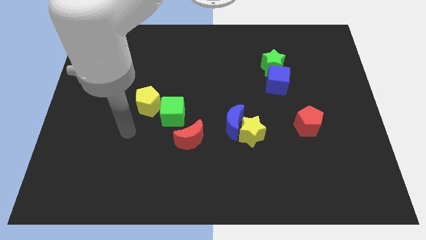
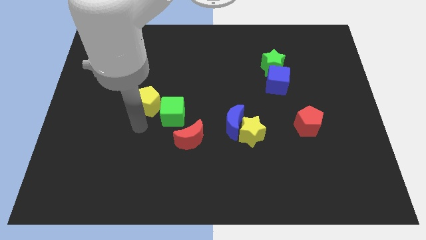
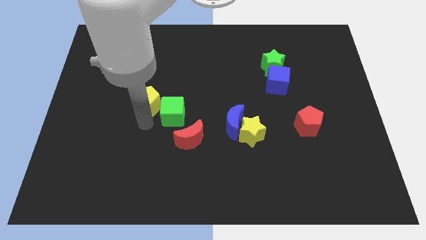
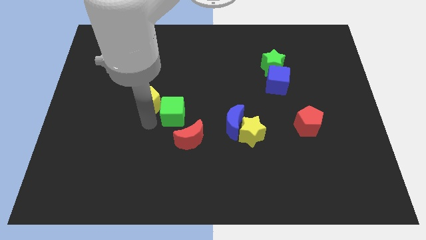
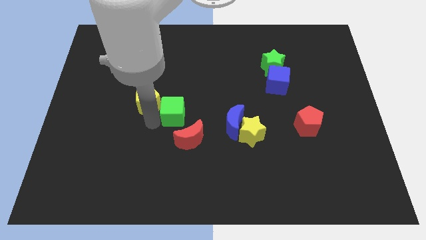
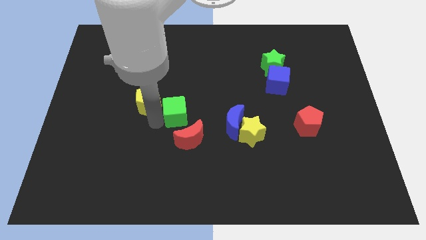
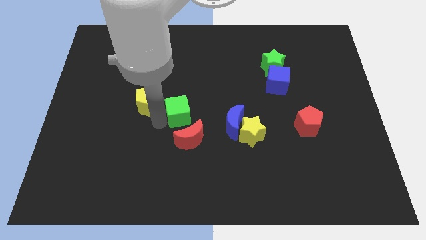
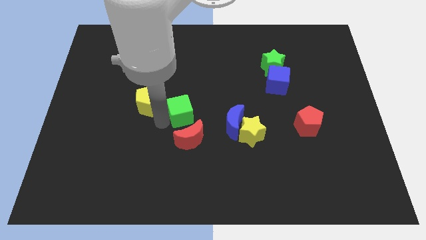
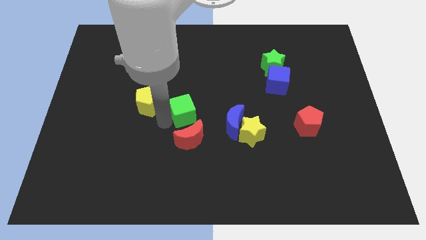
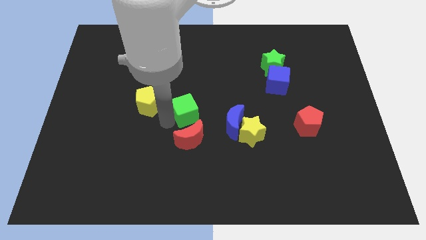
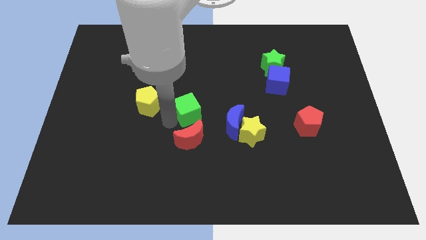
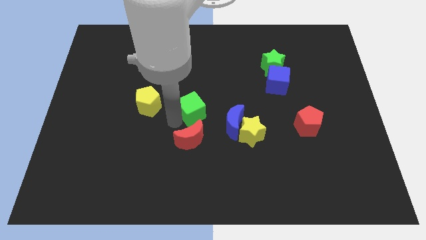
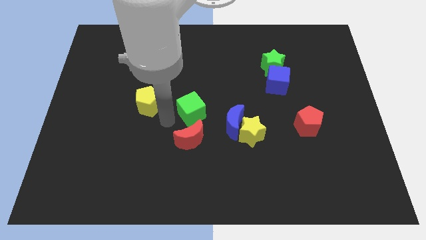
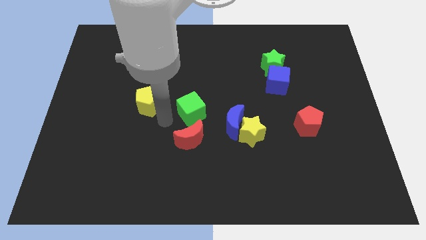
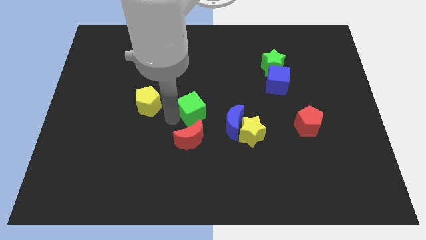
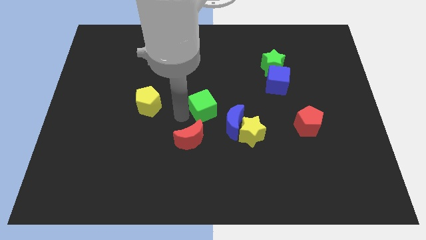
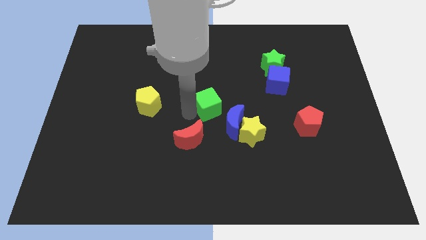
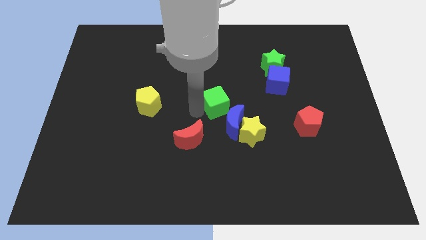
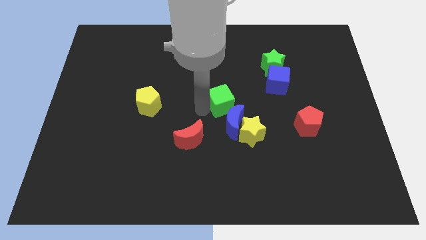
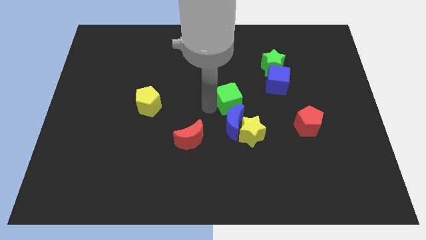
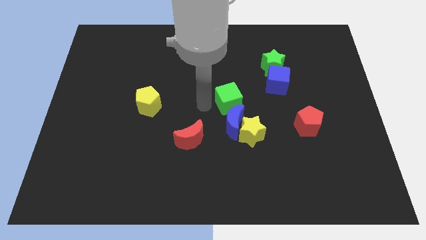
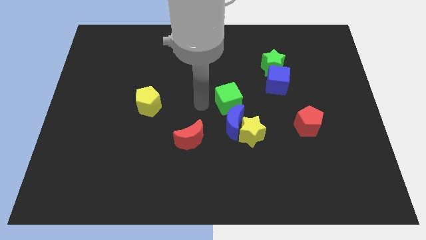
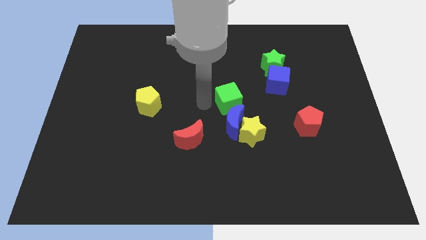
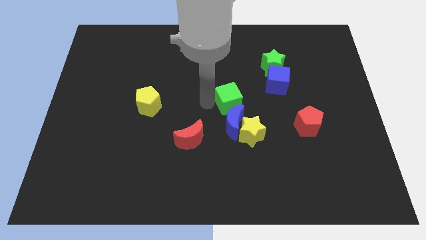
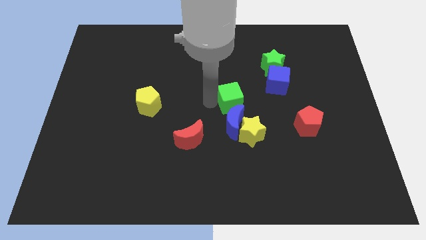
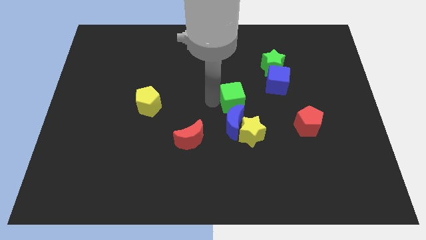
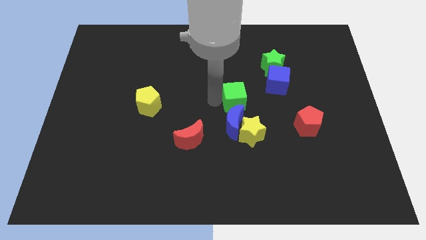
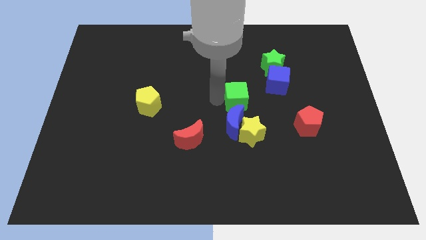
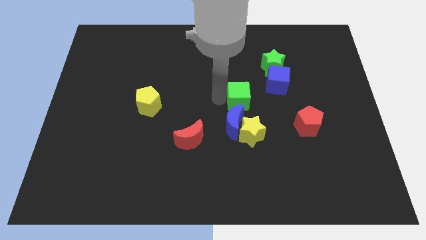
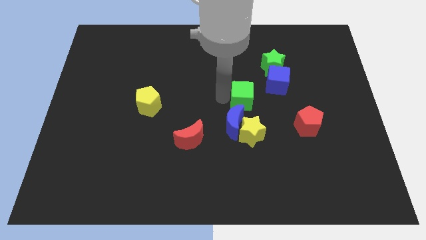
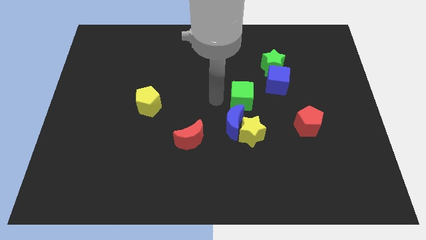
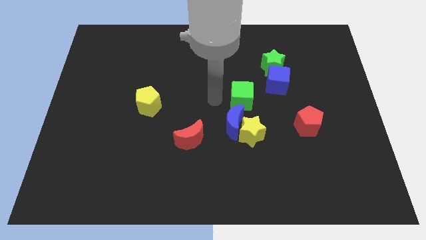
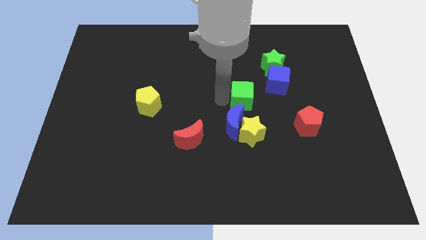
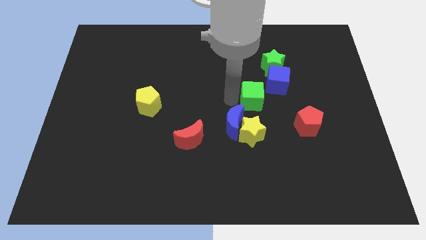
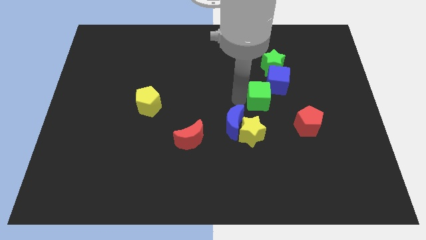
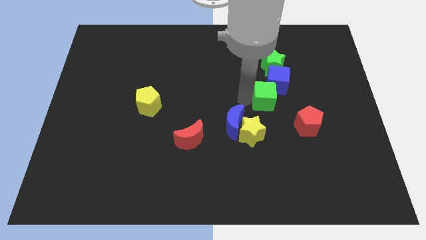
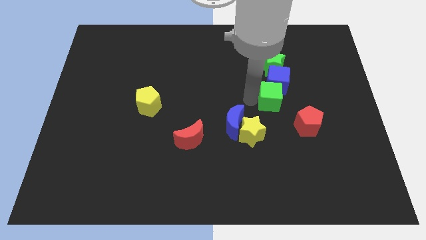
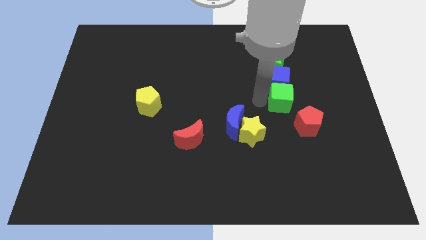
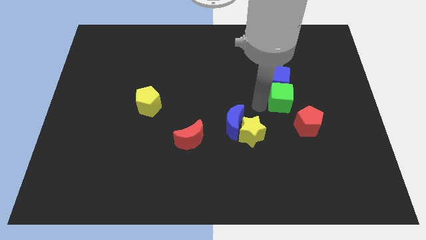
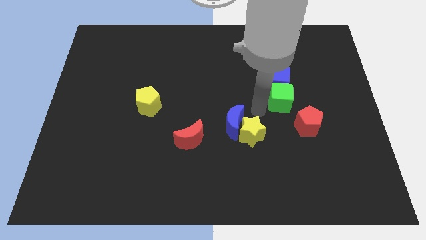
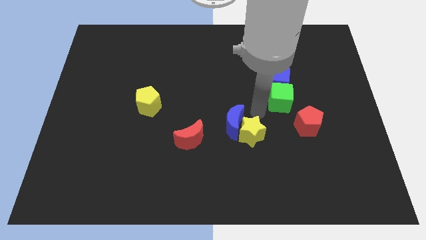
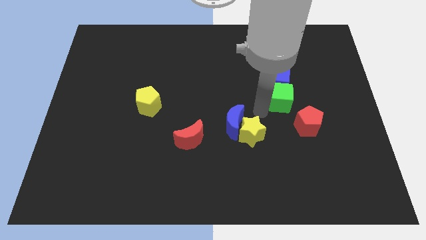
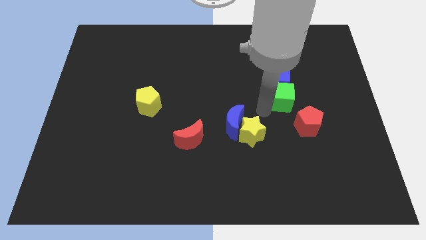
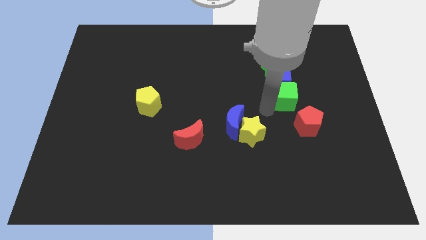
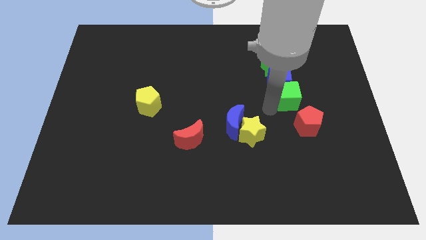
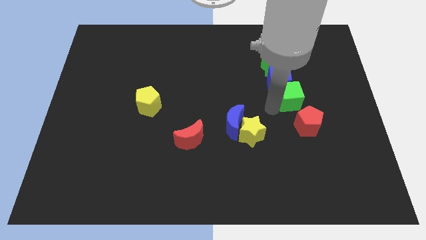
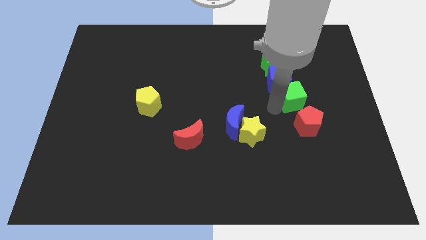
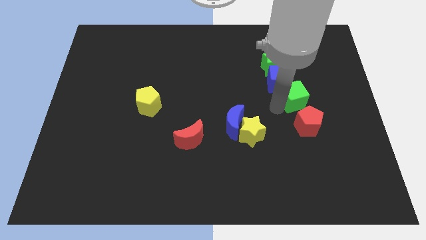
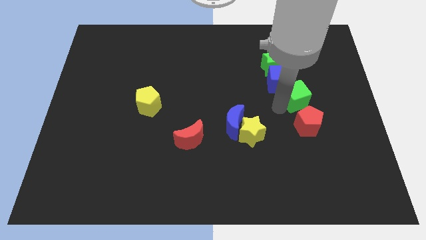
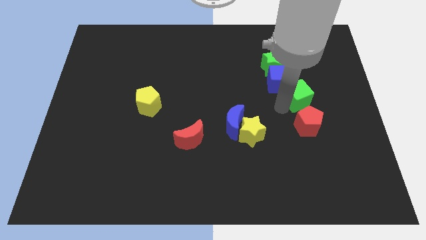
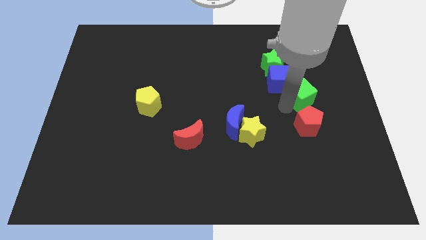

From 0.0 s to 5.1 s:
move the green cube just right of the blue cube

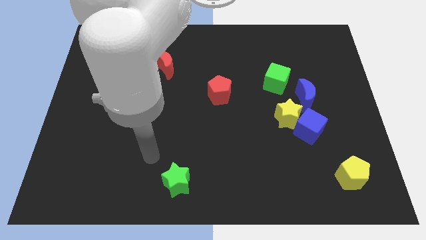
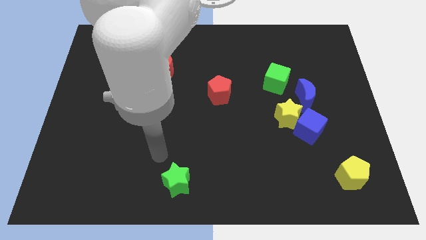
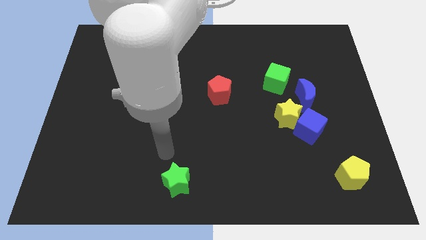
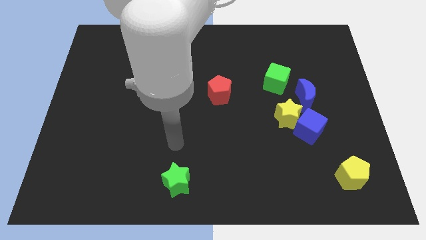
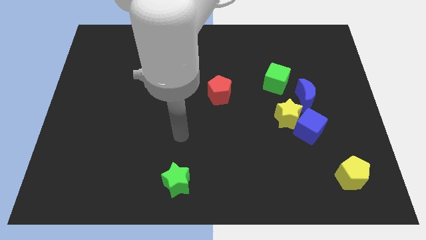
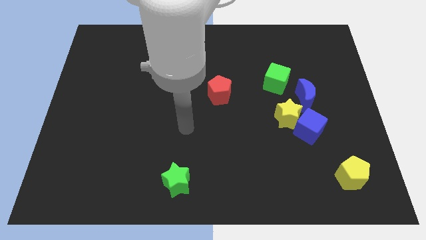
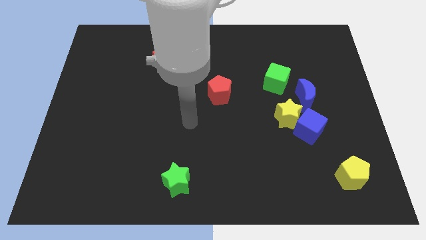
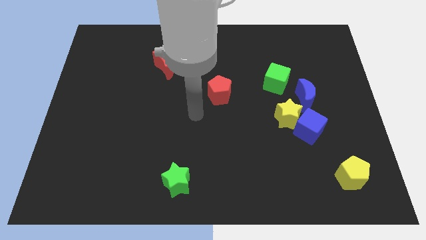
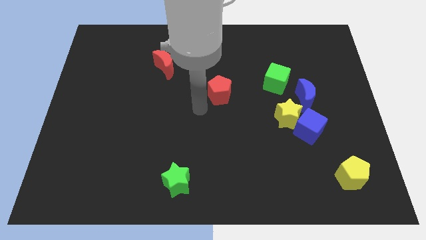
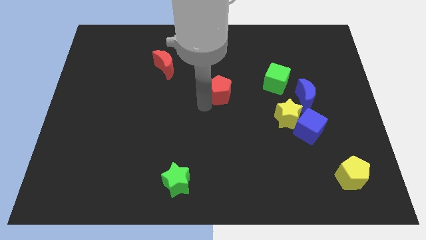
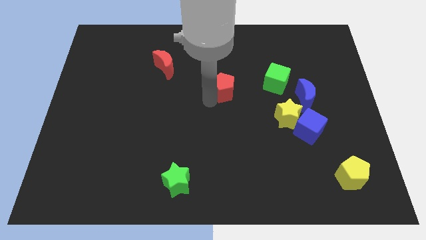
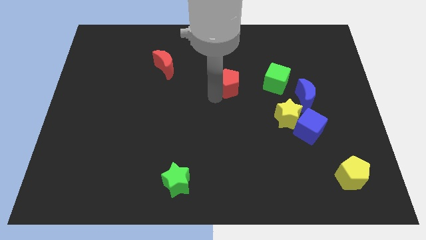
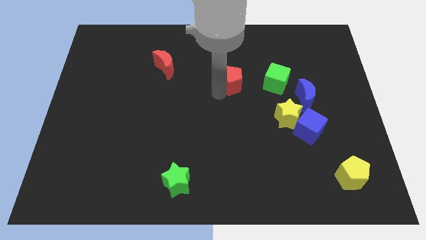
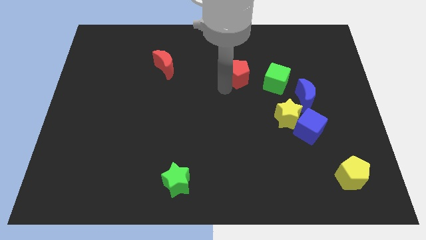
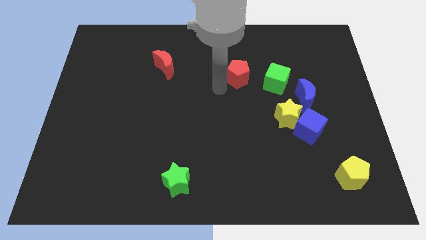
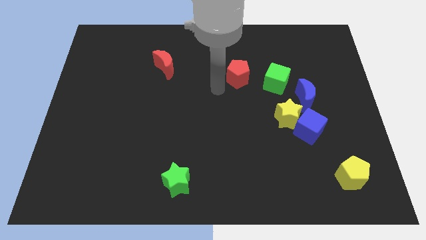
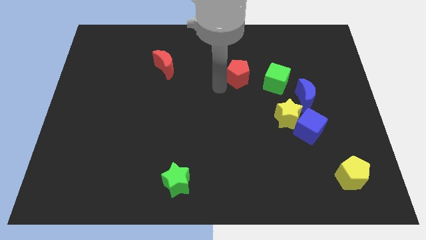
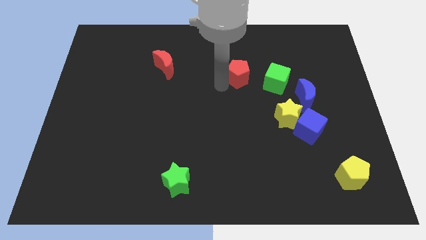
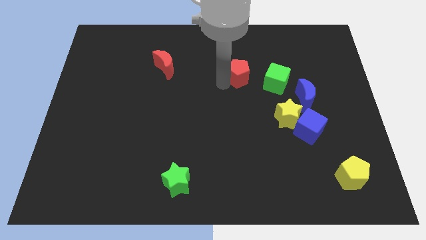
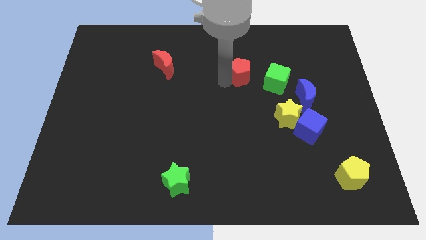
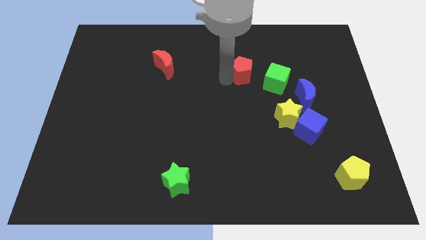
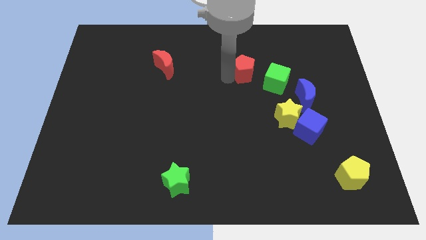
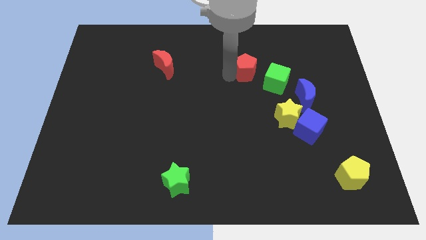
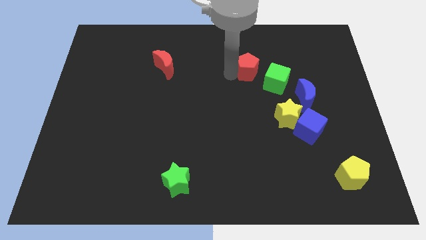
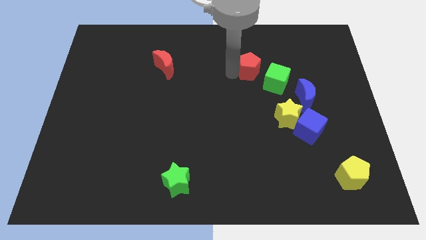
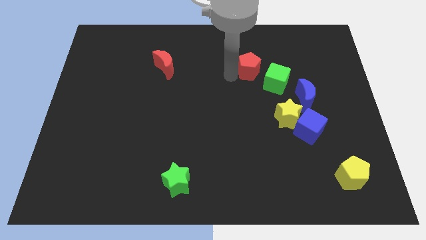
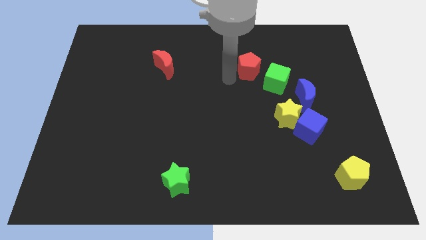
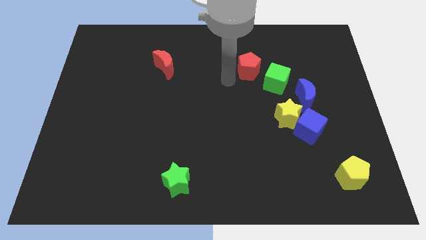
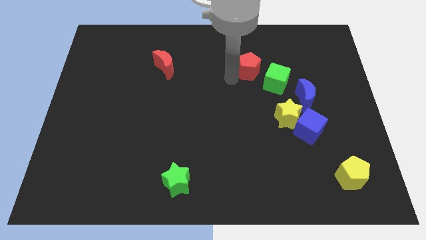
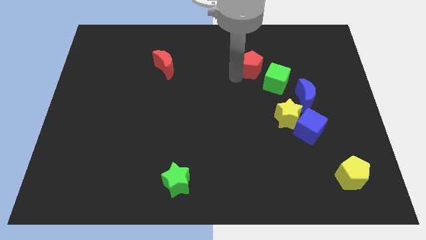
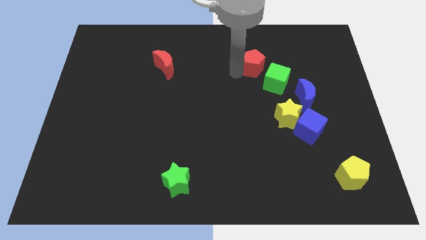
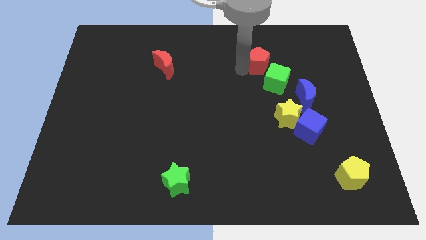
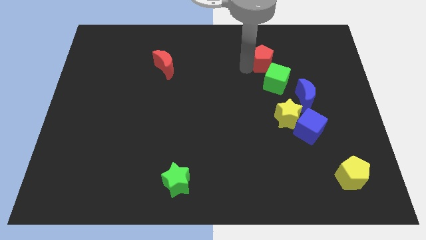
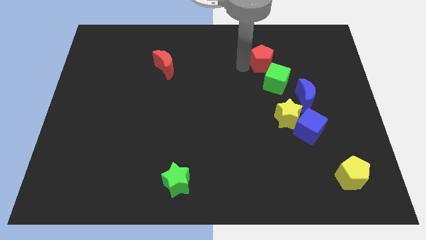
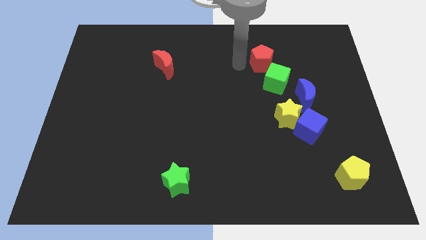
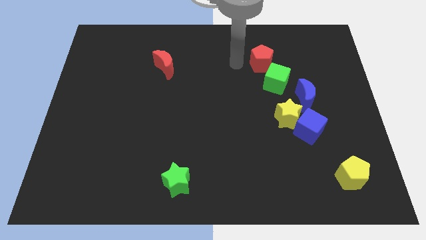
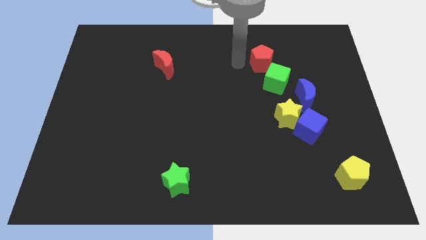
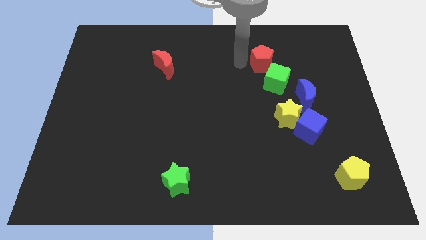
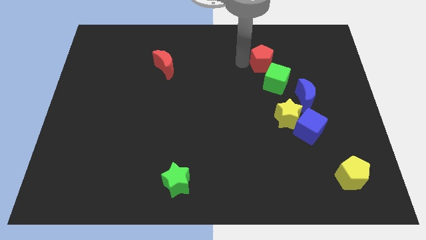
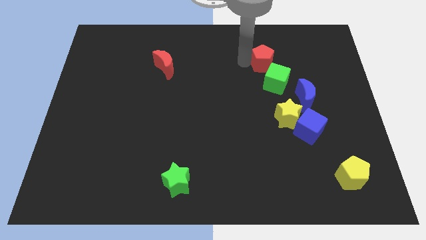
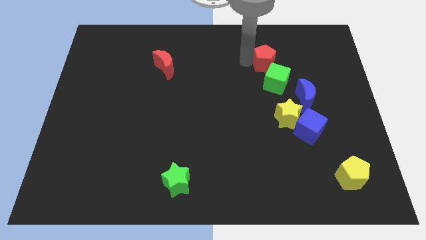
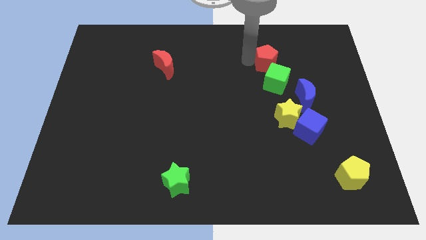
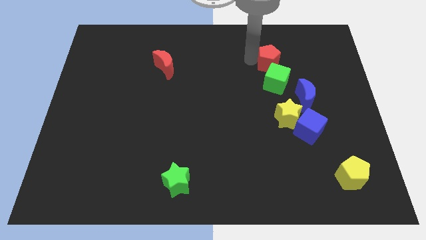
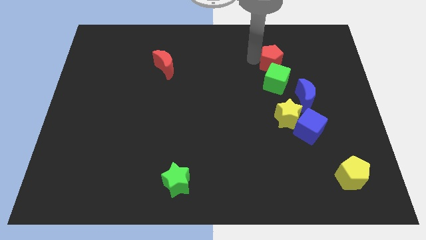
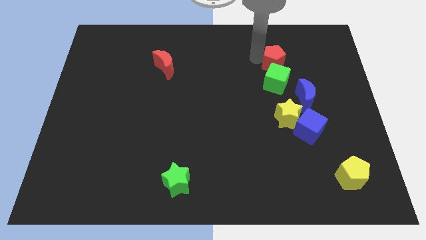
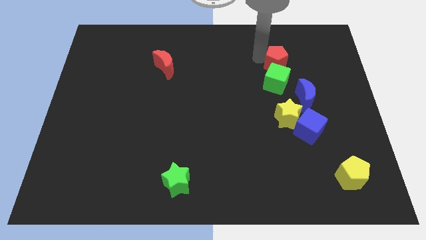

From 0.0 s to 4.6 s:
move the red pentagon to the top right side of the green cube
